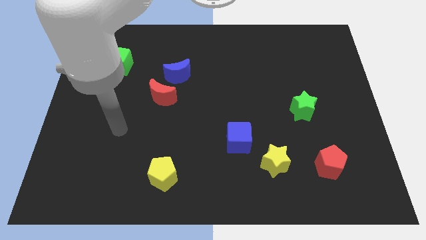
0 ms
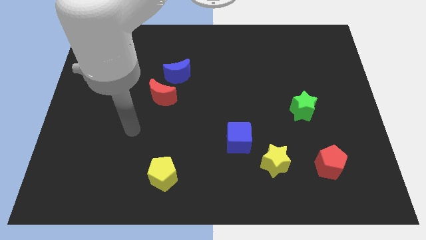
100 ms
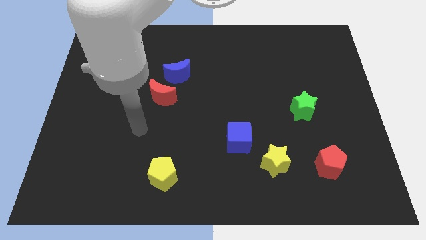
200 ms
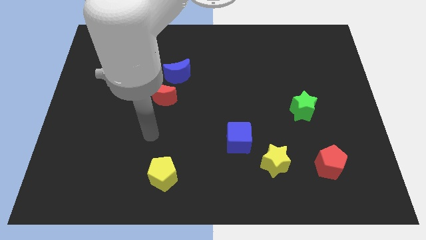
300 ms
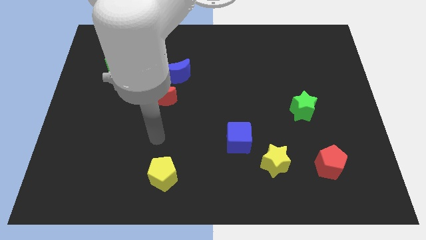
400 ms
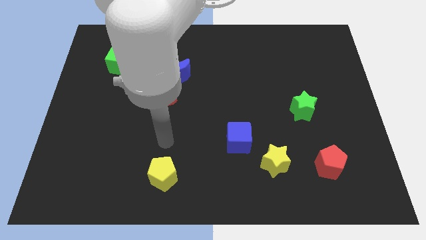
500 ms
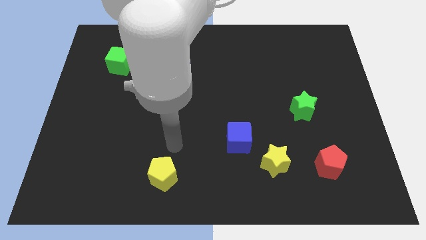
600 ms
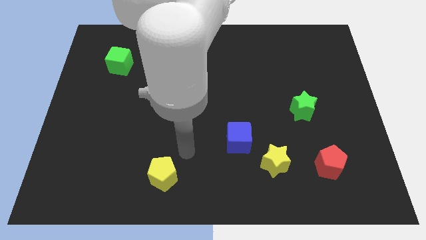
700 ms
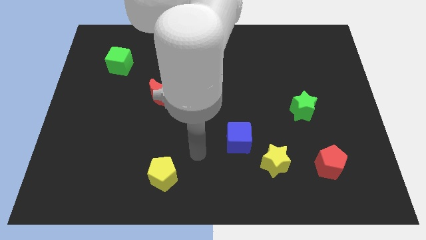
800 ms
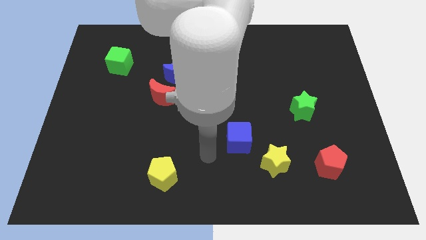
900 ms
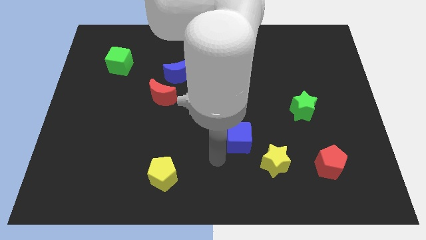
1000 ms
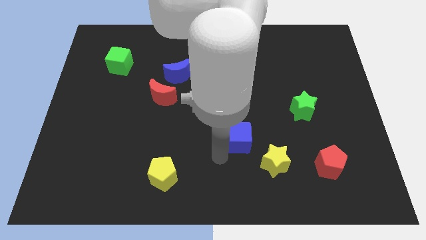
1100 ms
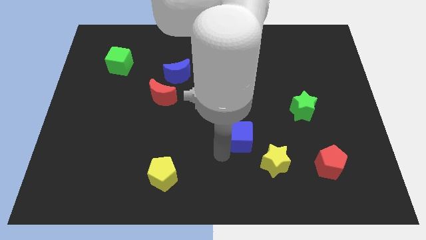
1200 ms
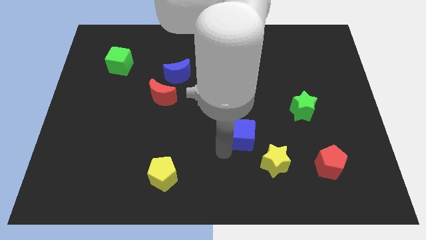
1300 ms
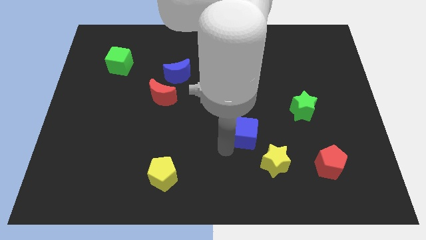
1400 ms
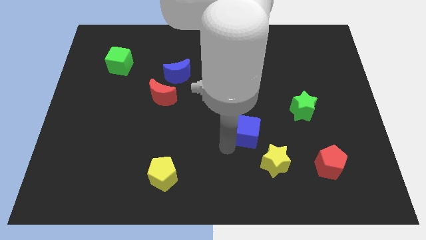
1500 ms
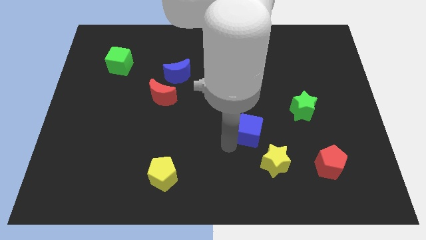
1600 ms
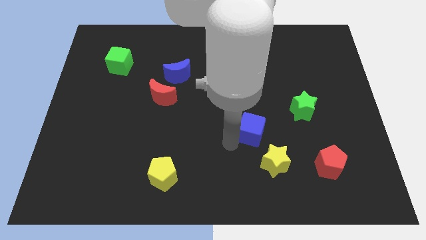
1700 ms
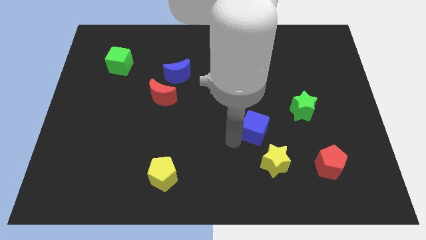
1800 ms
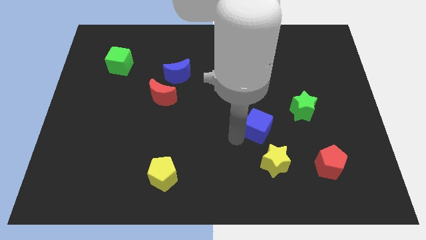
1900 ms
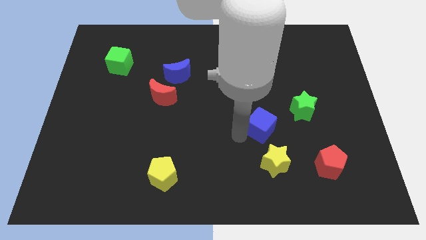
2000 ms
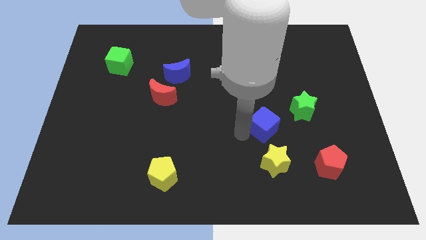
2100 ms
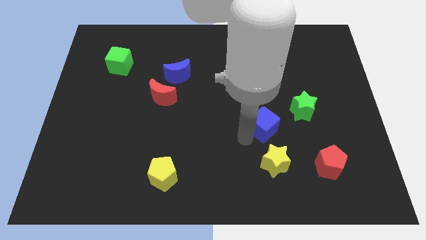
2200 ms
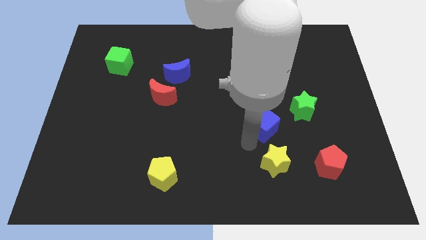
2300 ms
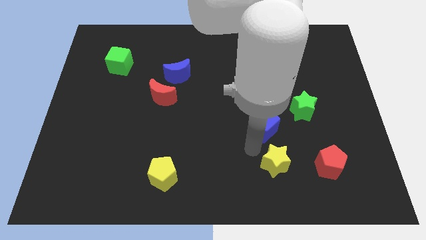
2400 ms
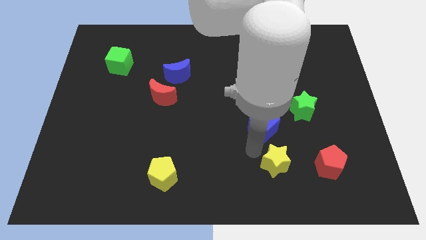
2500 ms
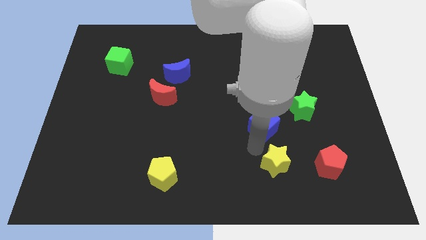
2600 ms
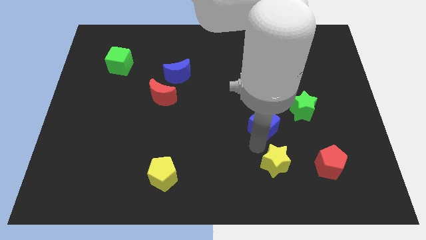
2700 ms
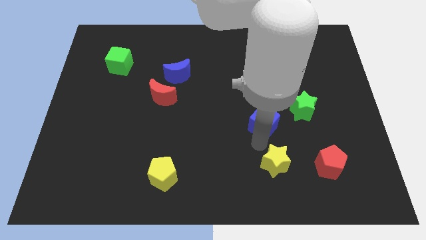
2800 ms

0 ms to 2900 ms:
slightly move the blue cube upwards and right diagonally

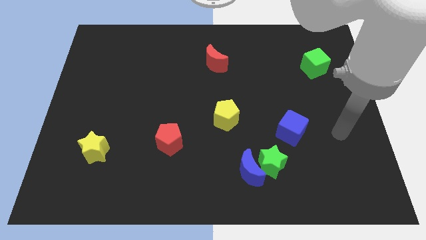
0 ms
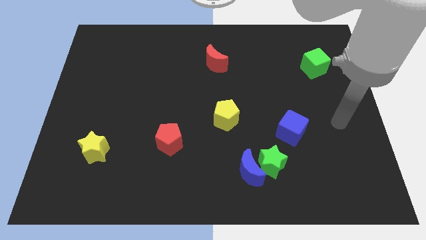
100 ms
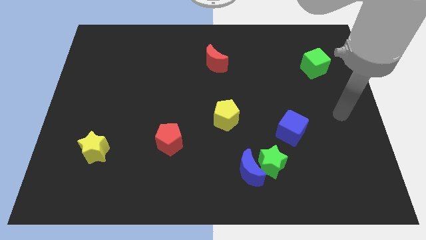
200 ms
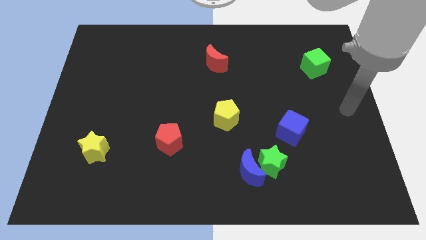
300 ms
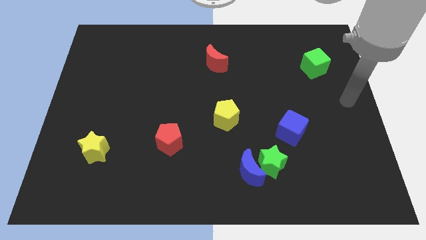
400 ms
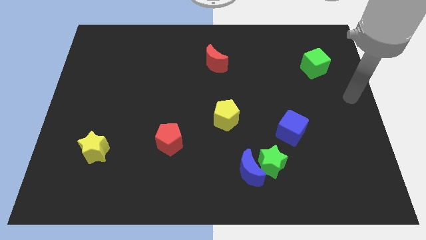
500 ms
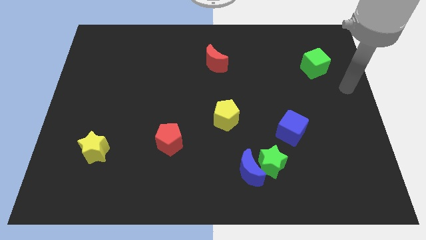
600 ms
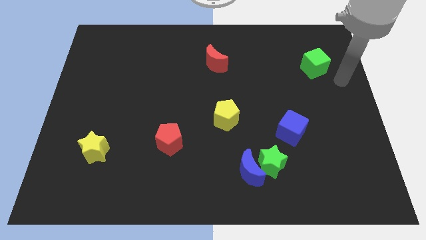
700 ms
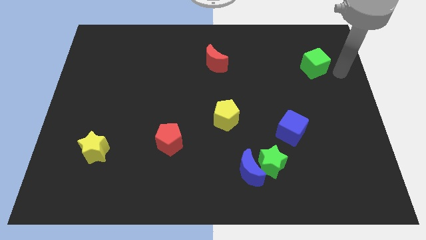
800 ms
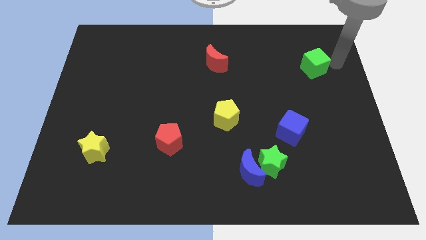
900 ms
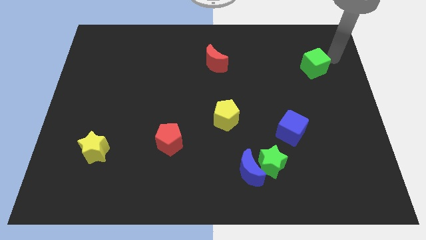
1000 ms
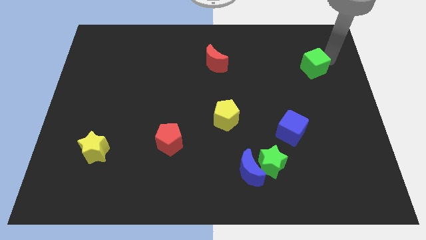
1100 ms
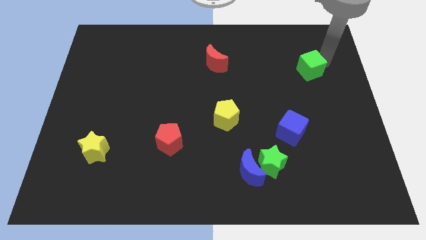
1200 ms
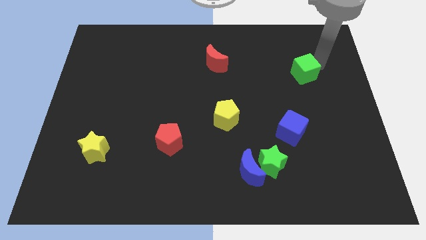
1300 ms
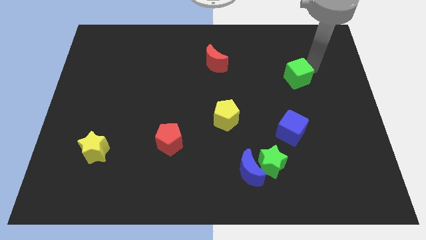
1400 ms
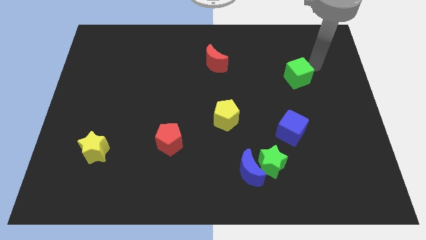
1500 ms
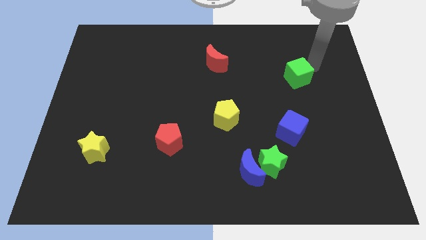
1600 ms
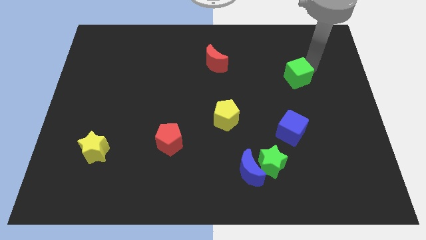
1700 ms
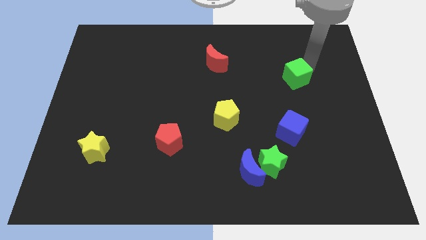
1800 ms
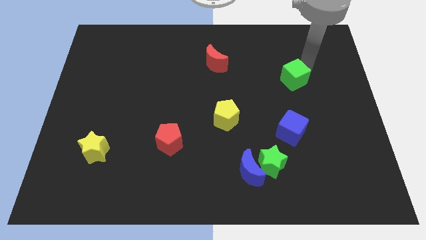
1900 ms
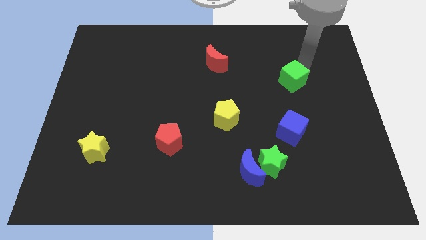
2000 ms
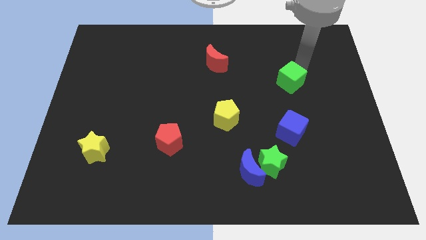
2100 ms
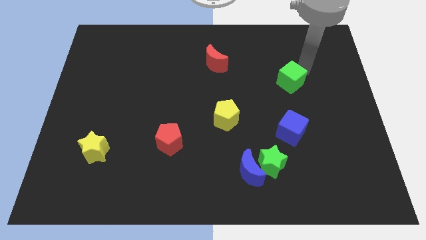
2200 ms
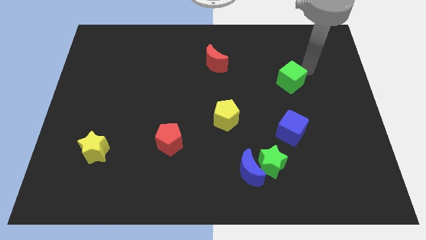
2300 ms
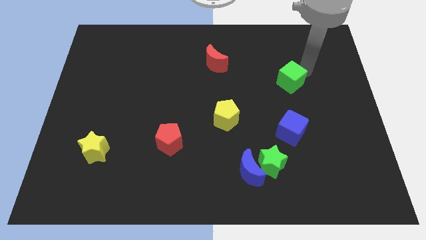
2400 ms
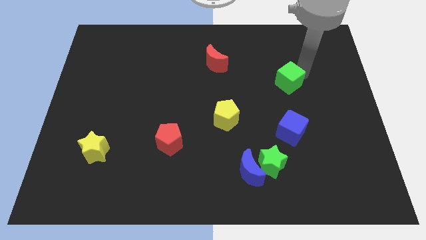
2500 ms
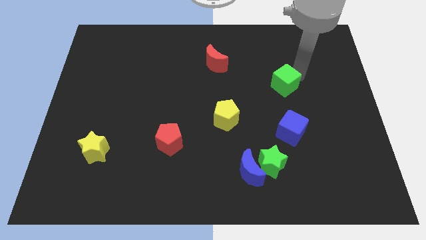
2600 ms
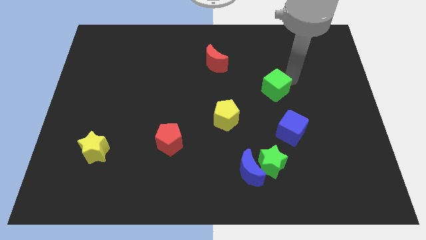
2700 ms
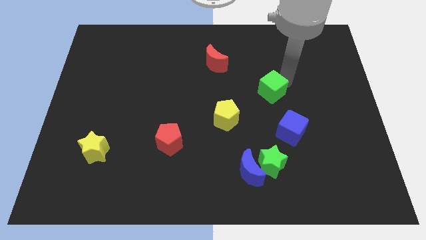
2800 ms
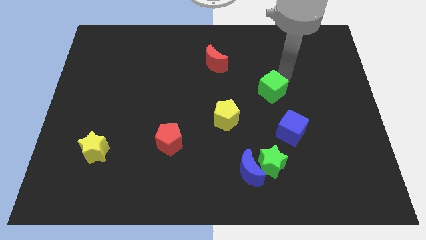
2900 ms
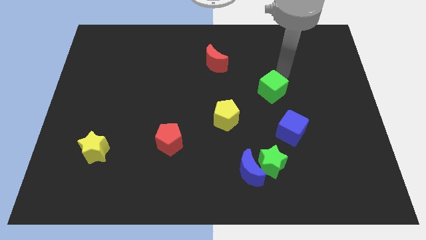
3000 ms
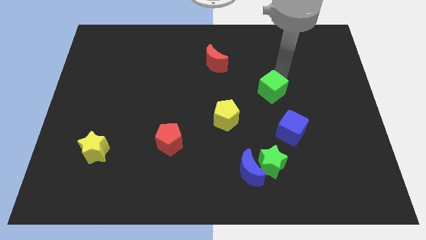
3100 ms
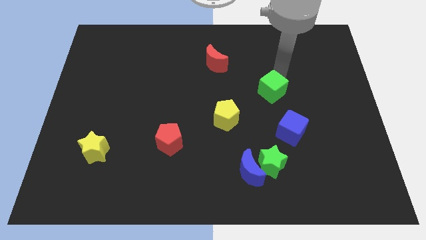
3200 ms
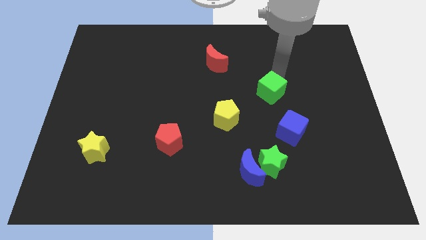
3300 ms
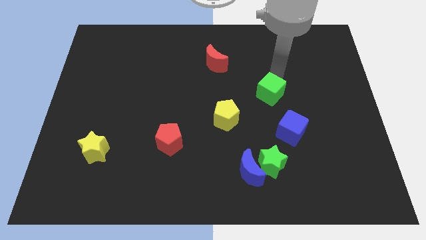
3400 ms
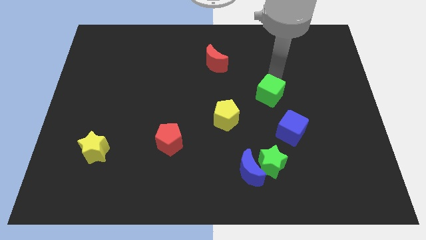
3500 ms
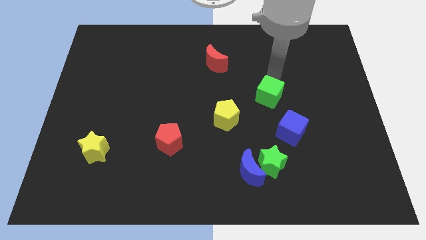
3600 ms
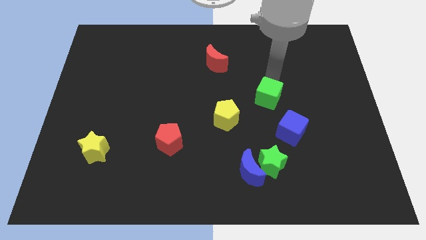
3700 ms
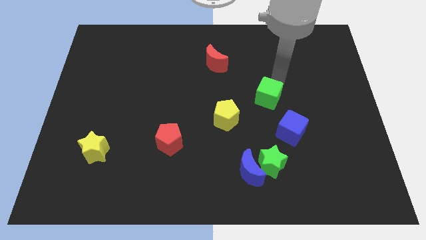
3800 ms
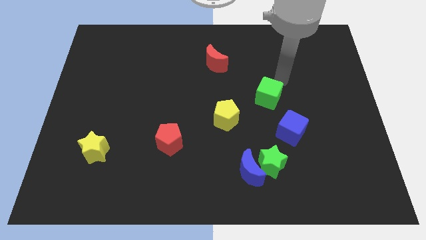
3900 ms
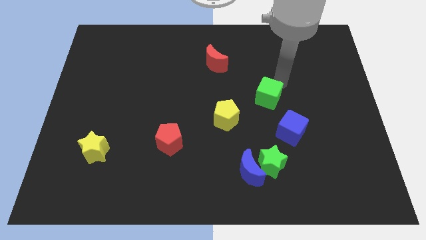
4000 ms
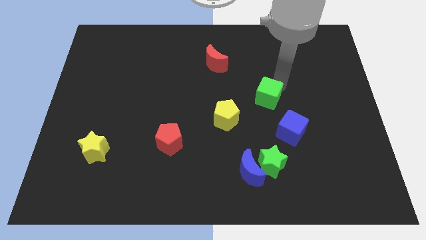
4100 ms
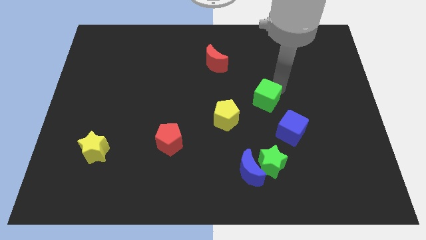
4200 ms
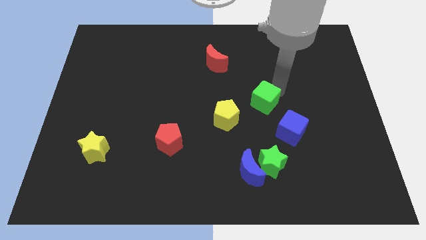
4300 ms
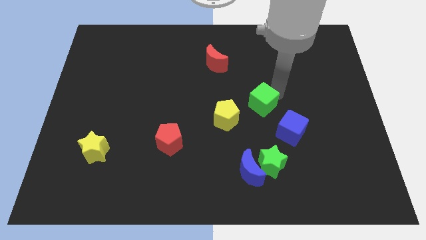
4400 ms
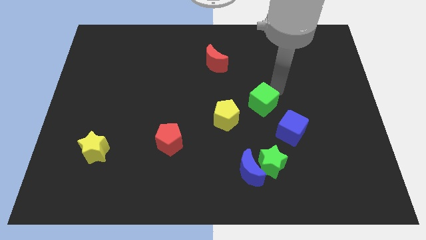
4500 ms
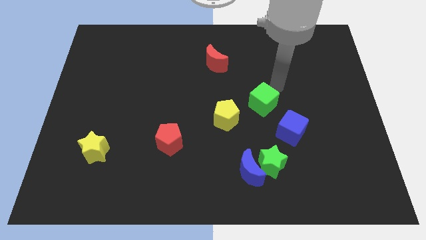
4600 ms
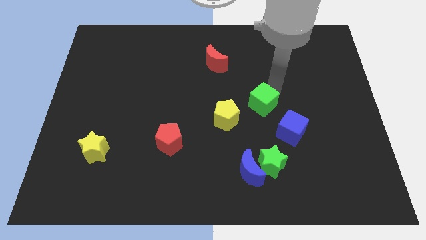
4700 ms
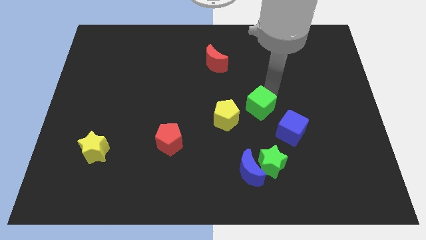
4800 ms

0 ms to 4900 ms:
move the green cube downwards and to the left

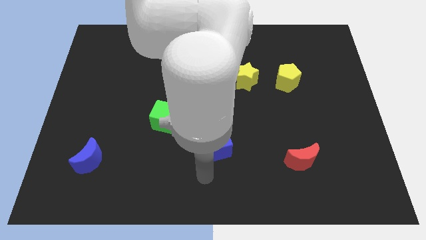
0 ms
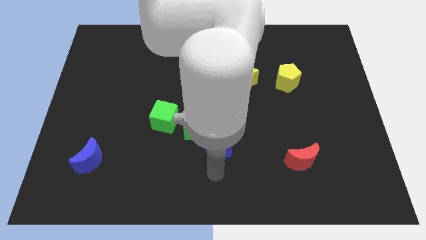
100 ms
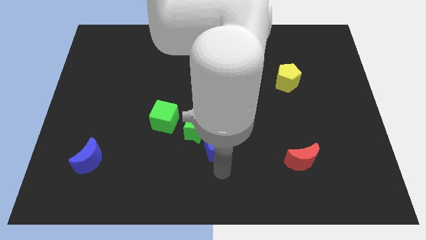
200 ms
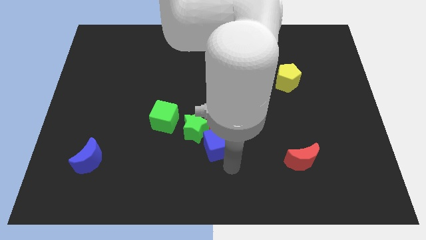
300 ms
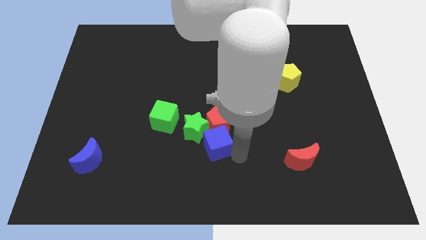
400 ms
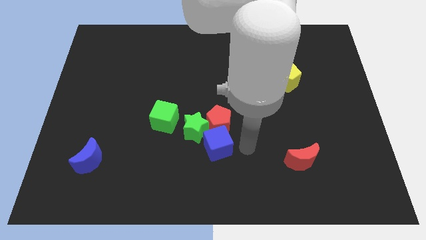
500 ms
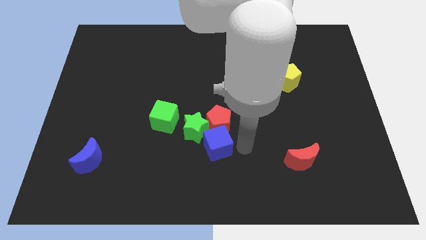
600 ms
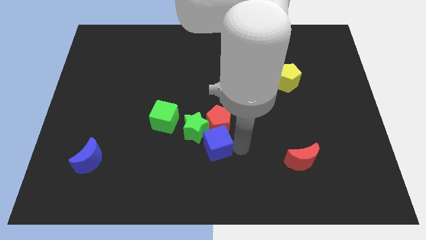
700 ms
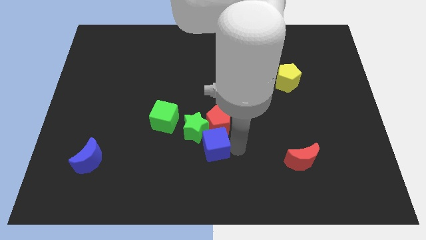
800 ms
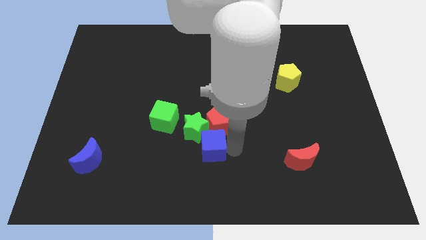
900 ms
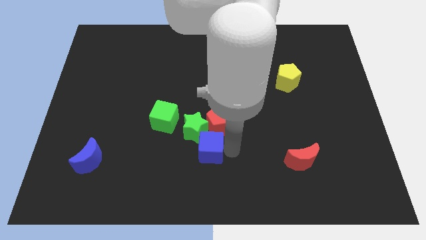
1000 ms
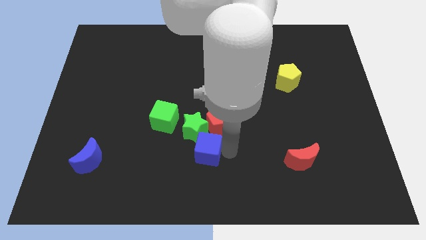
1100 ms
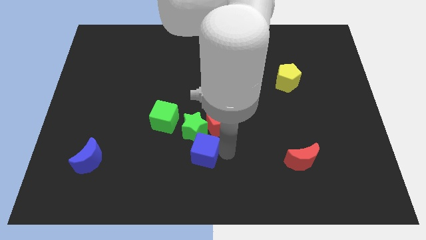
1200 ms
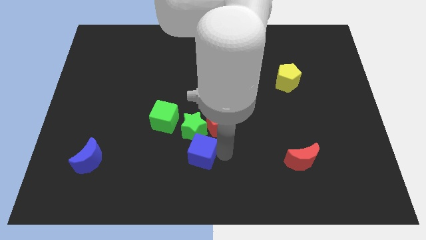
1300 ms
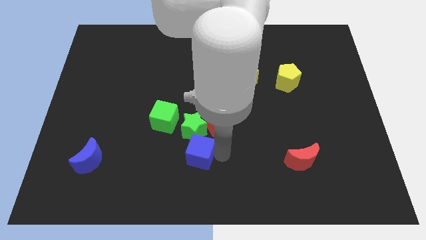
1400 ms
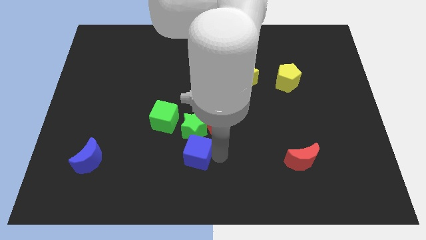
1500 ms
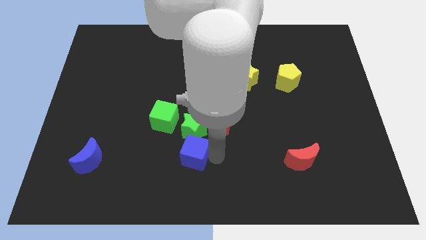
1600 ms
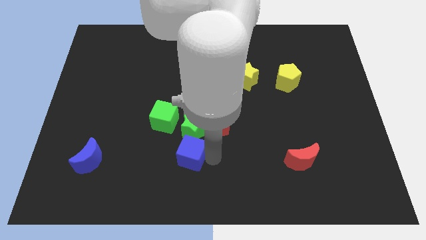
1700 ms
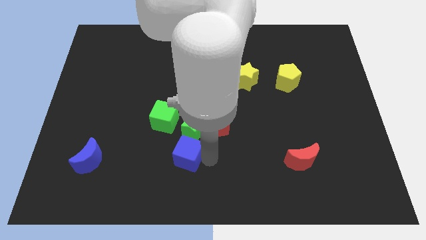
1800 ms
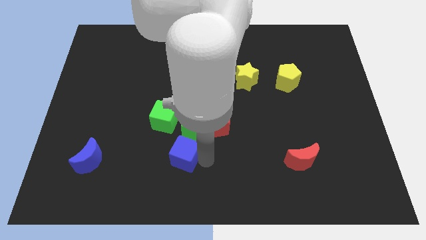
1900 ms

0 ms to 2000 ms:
slide the blue cube a little left
